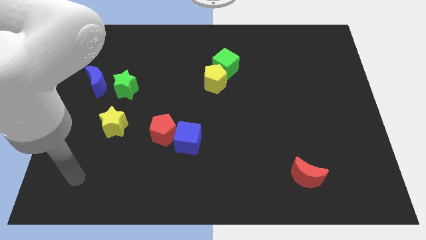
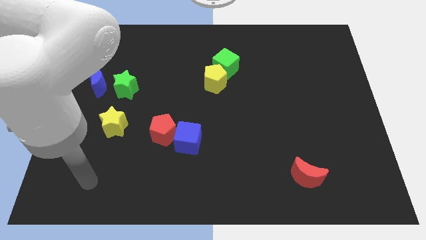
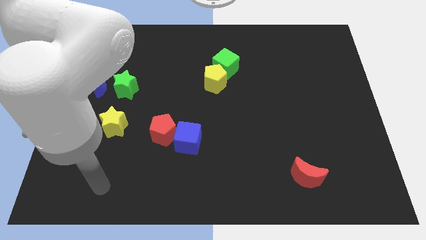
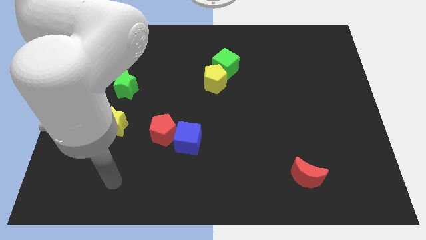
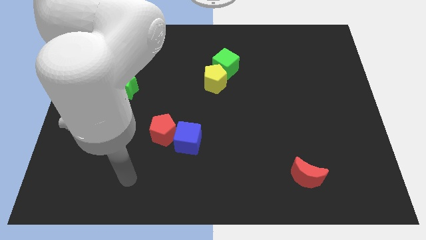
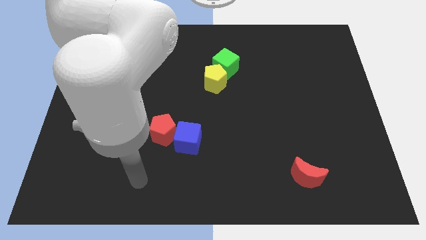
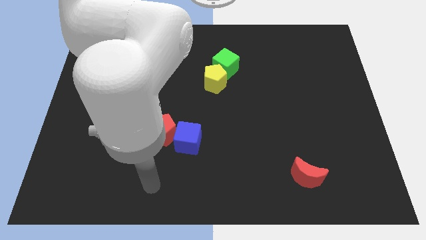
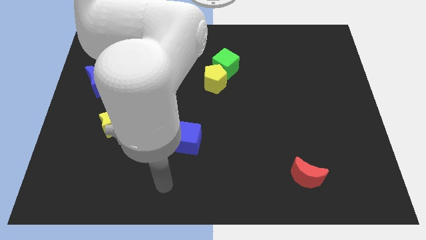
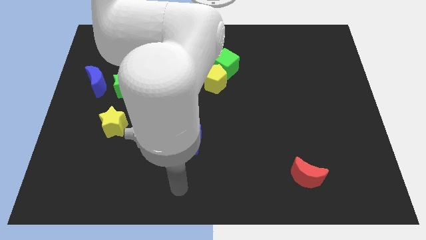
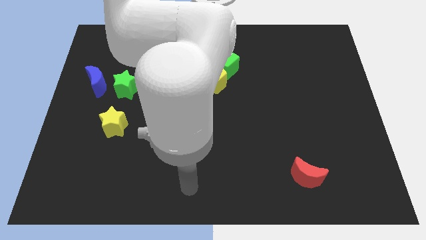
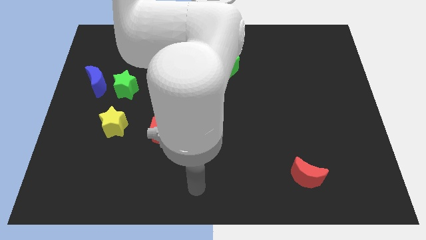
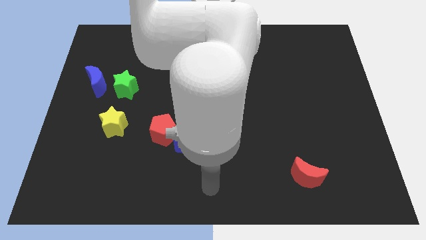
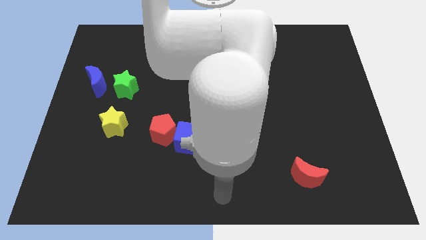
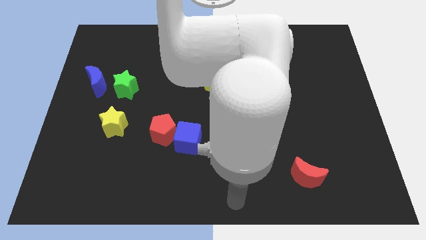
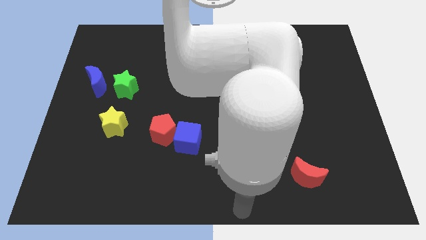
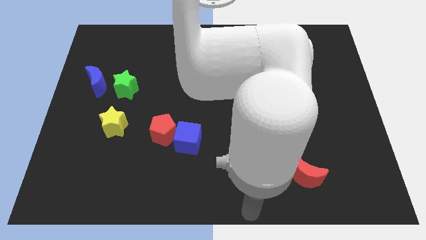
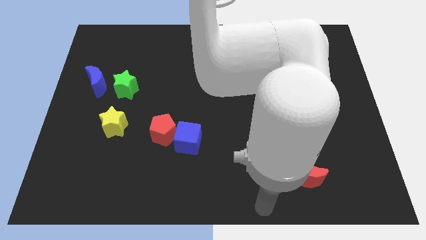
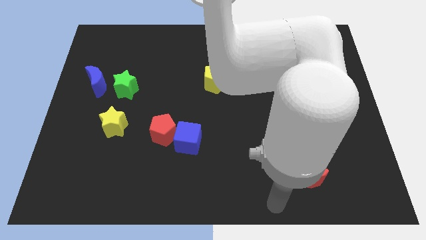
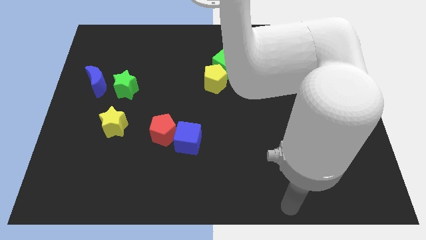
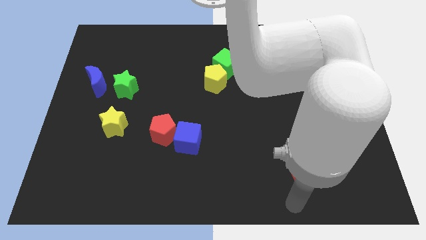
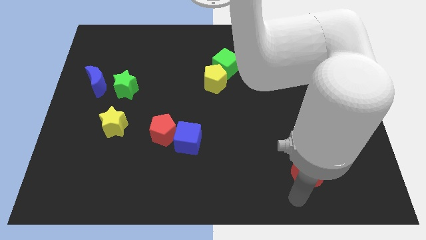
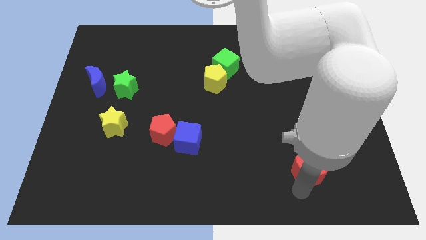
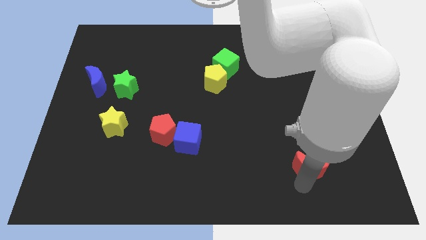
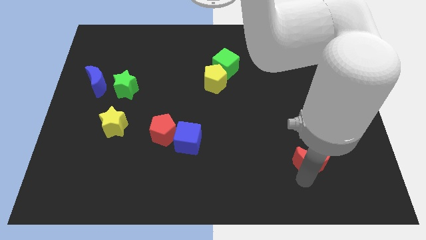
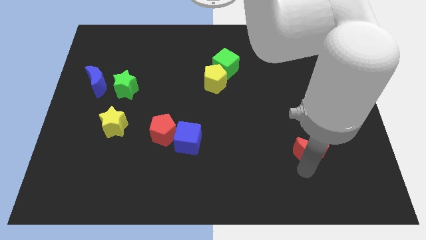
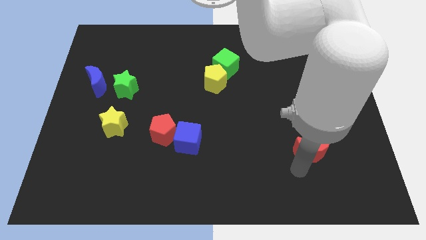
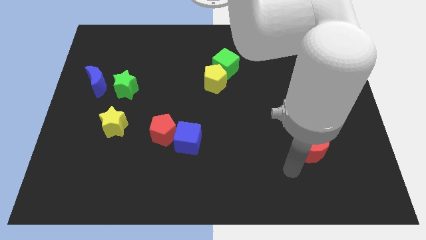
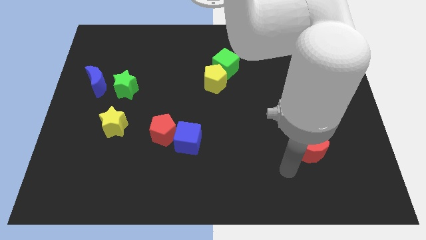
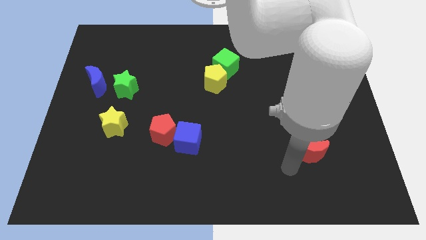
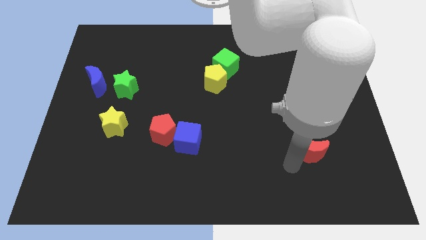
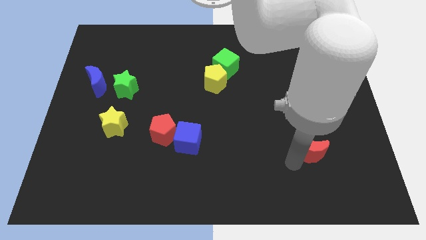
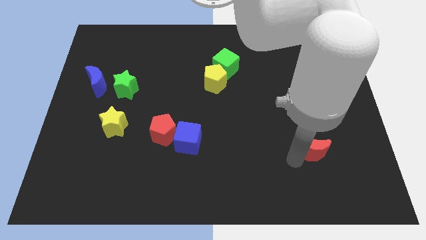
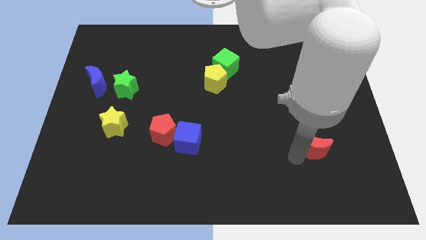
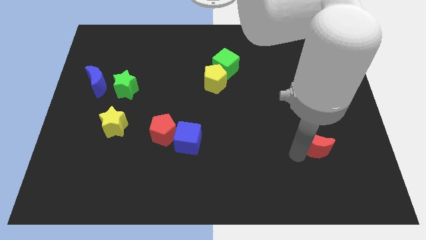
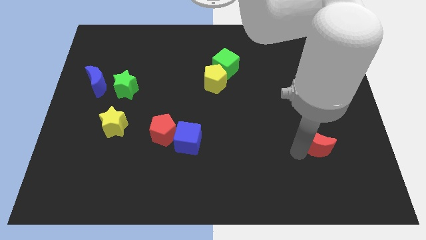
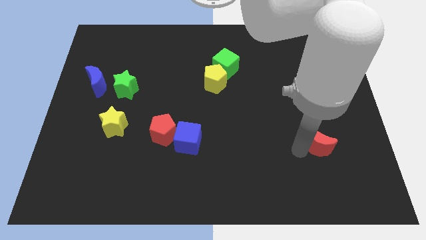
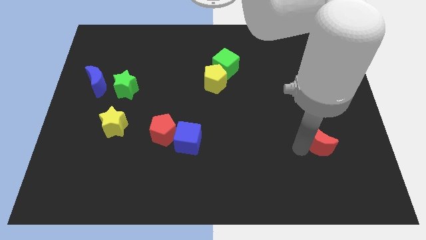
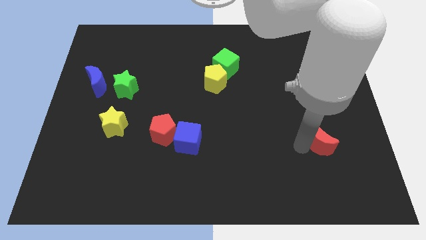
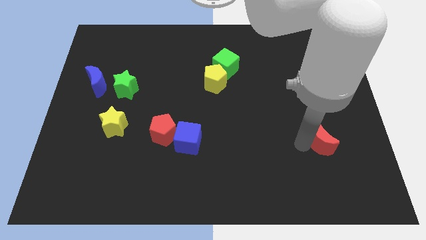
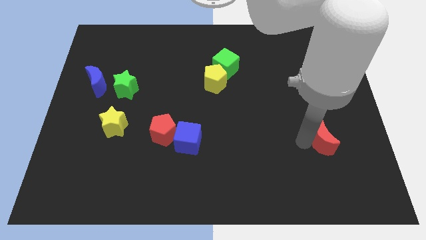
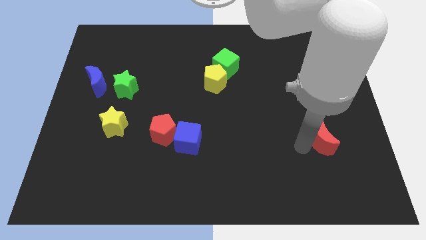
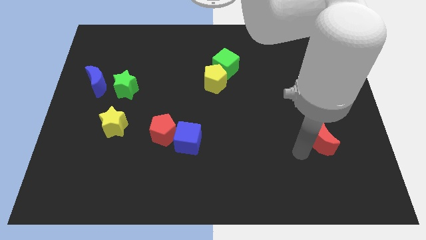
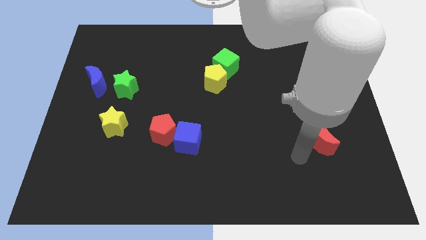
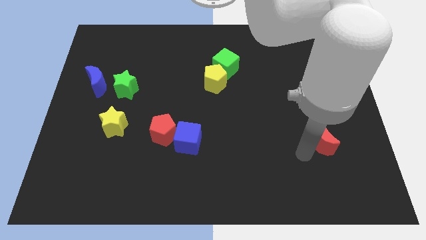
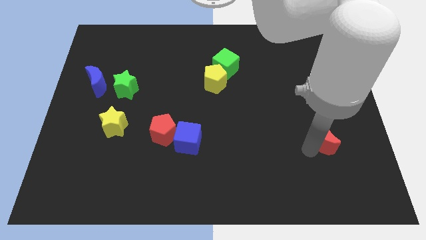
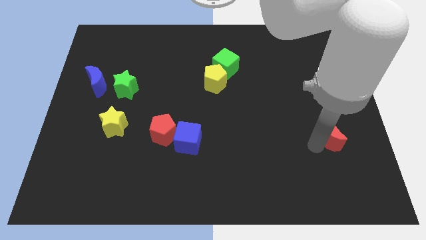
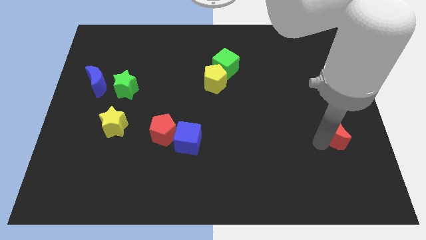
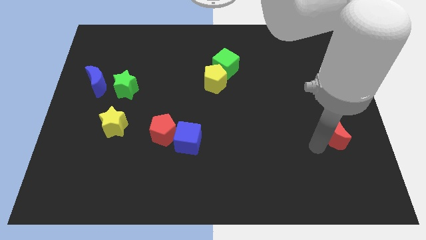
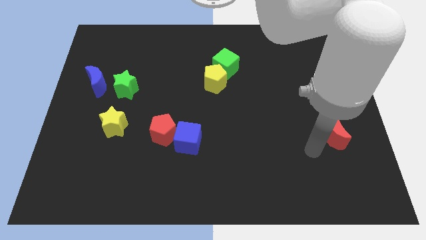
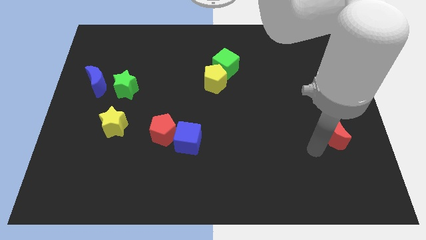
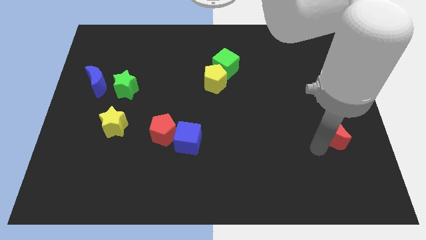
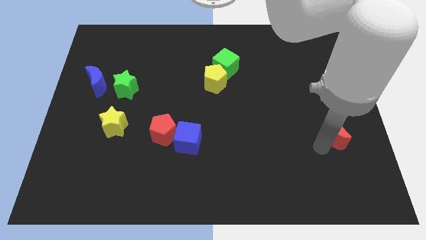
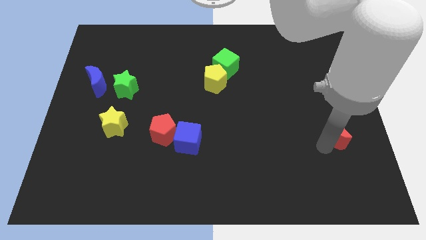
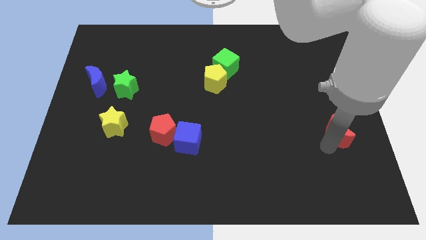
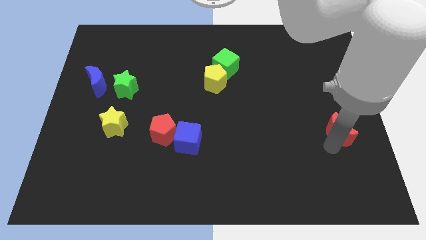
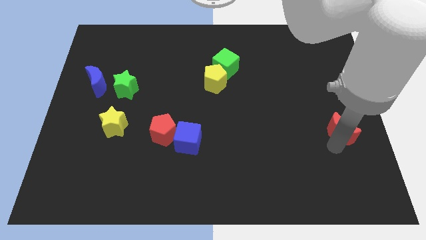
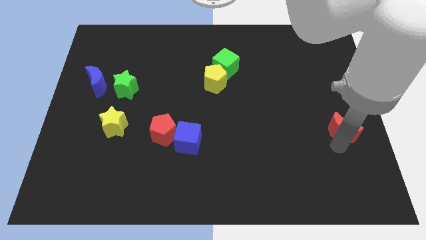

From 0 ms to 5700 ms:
move the red moon to the right side

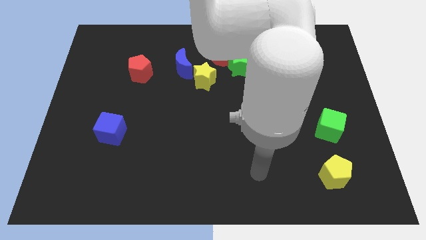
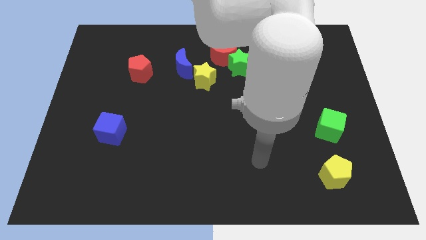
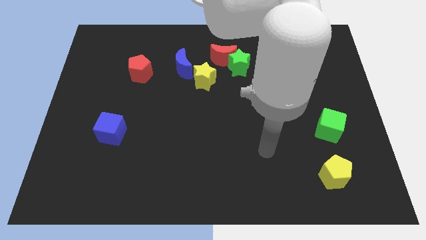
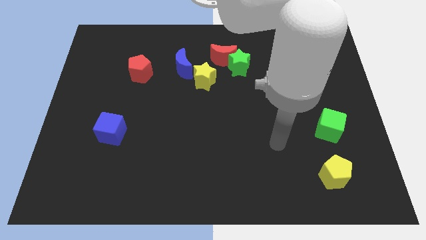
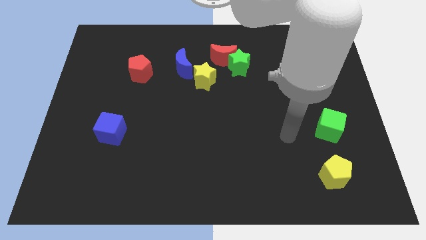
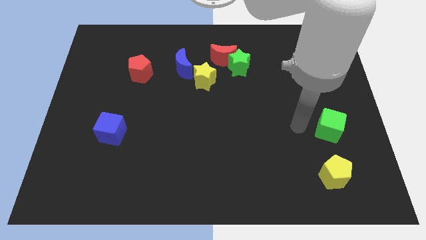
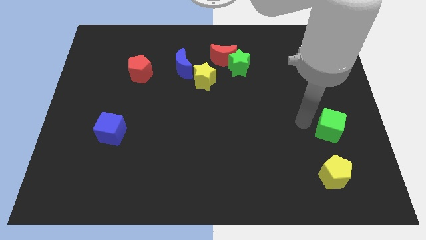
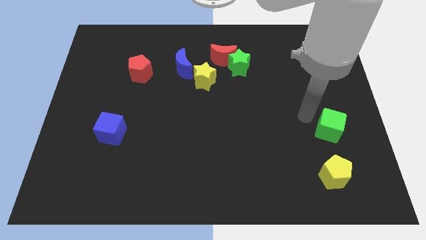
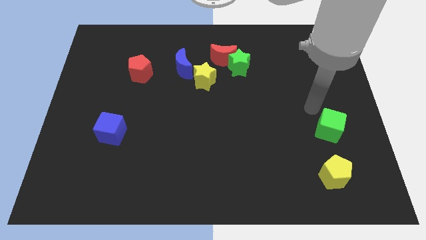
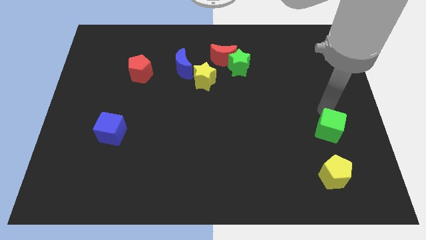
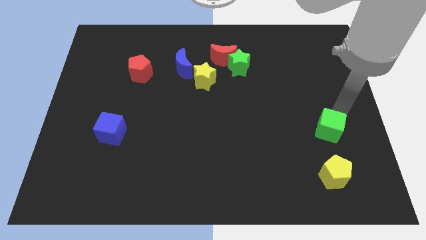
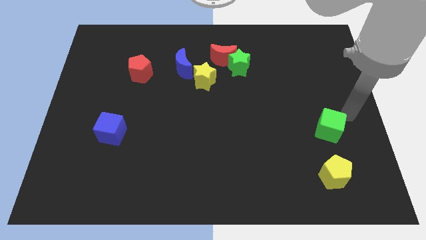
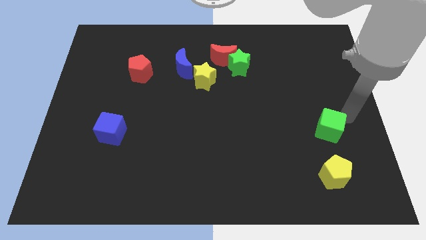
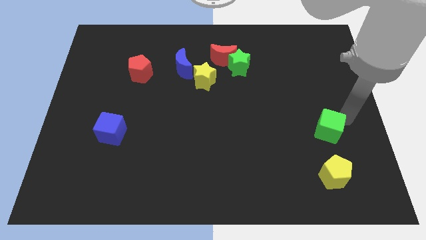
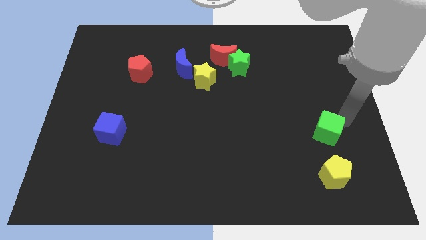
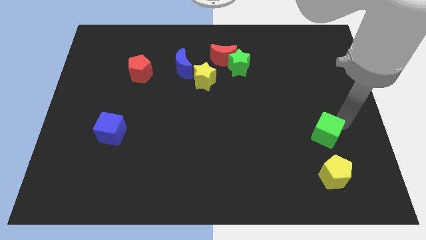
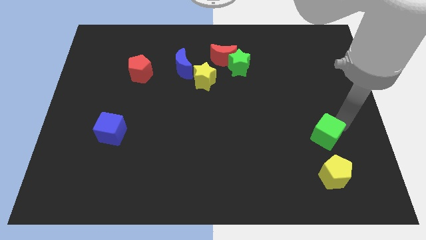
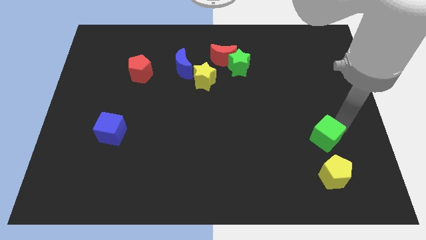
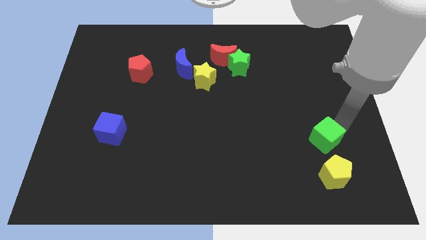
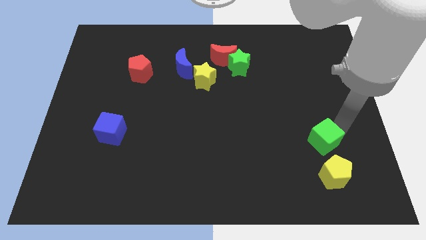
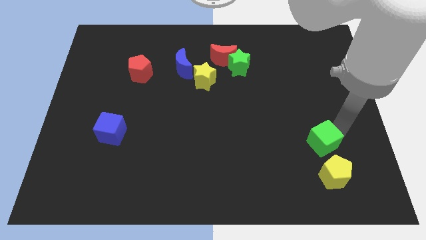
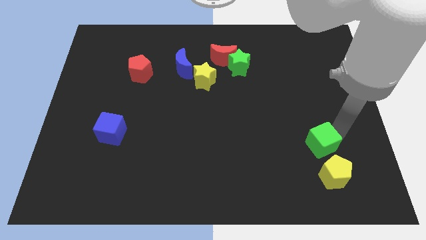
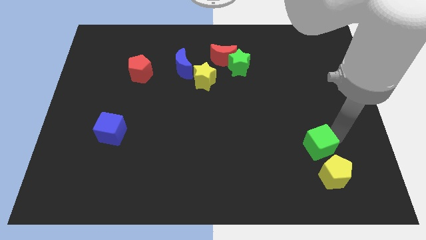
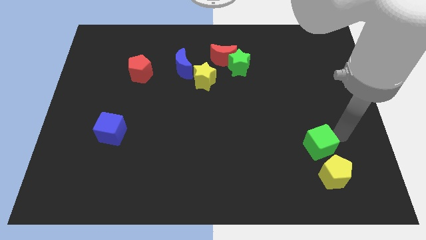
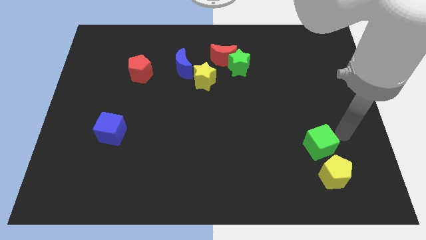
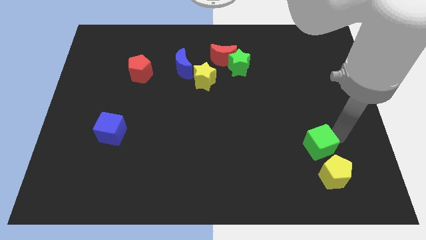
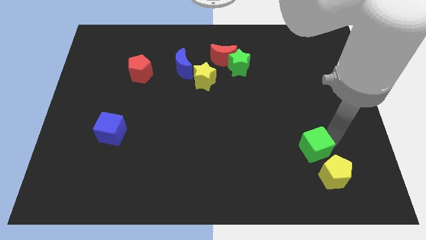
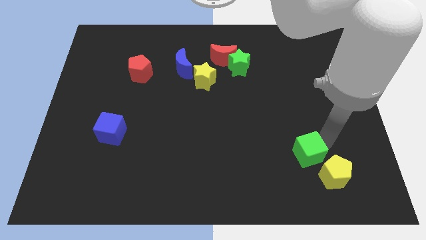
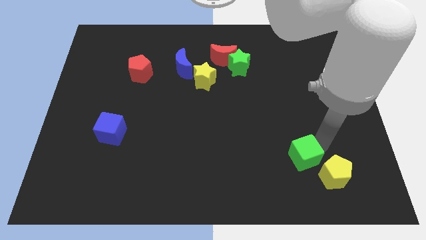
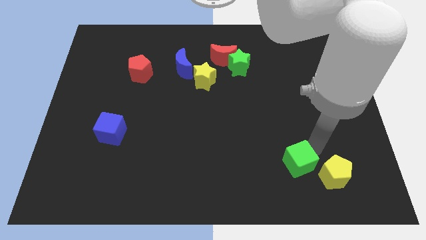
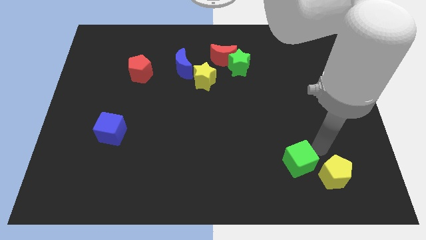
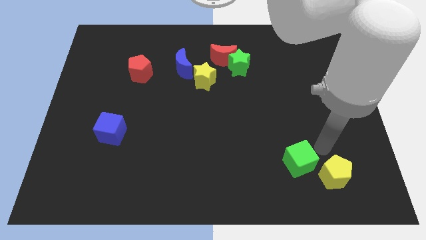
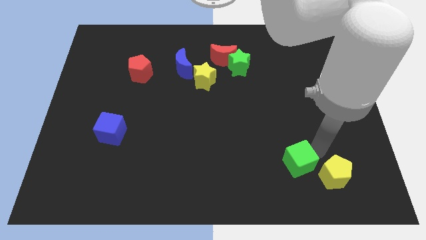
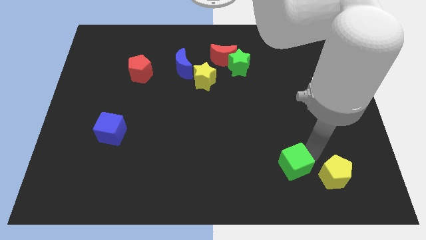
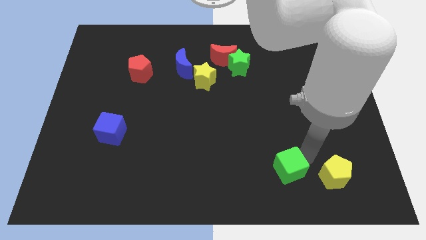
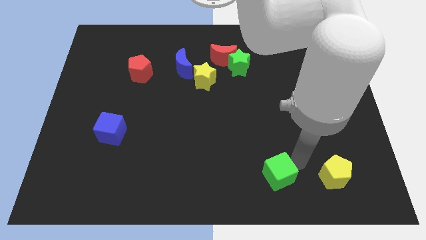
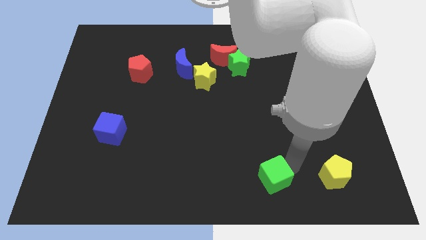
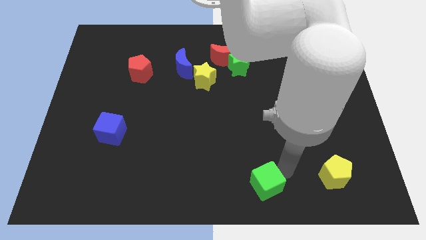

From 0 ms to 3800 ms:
push the green cube to the bottom side
